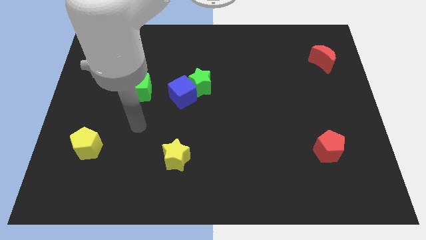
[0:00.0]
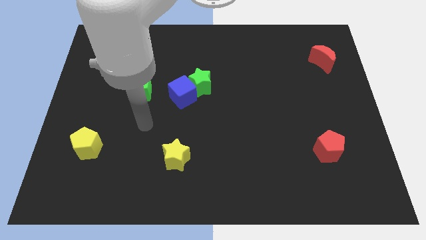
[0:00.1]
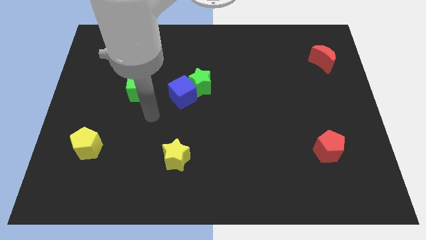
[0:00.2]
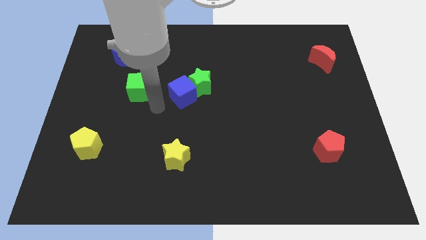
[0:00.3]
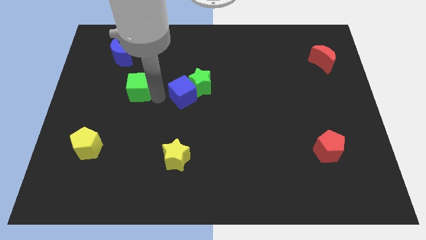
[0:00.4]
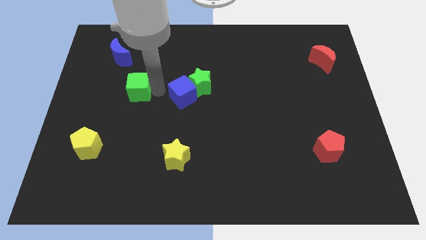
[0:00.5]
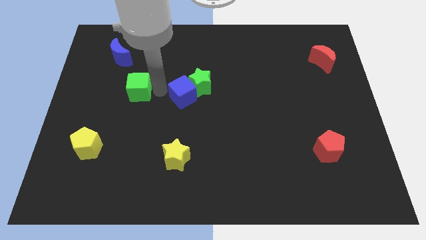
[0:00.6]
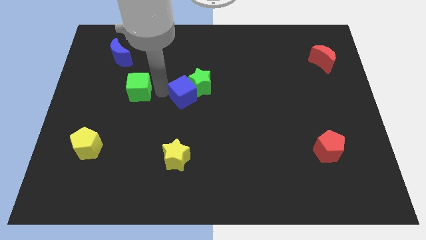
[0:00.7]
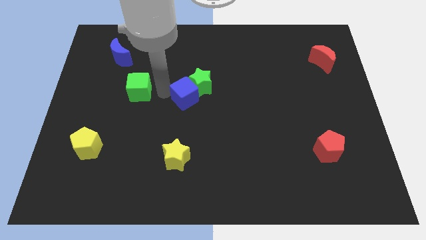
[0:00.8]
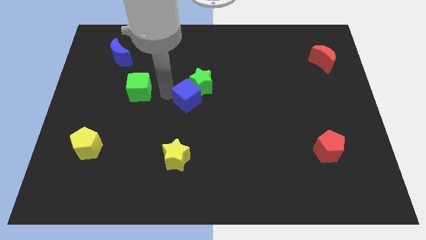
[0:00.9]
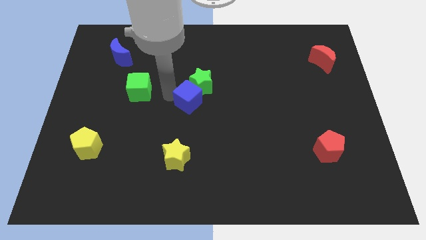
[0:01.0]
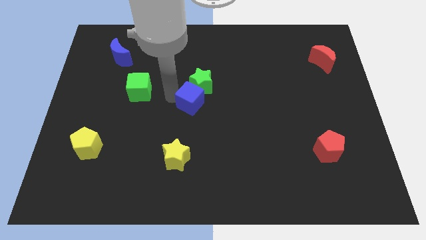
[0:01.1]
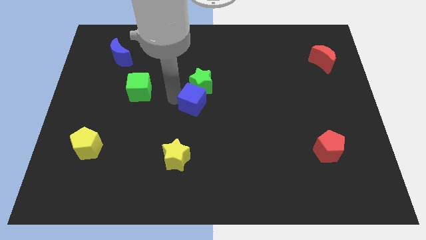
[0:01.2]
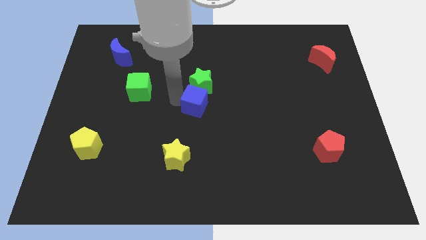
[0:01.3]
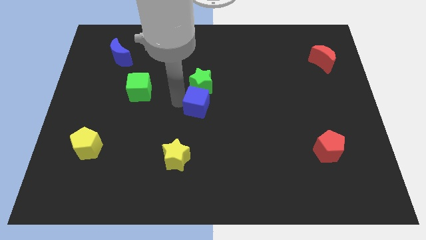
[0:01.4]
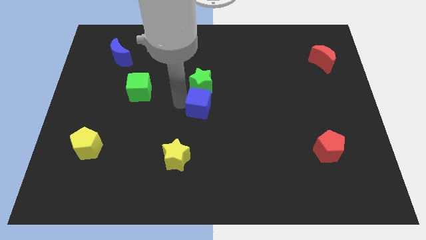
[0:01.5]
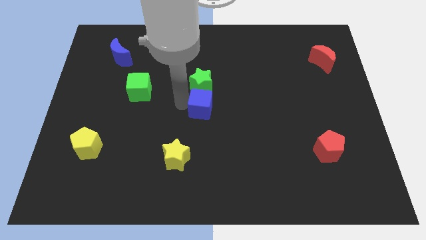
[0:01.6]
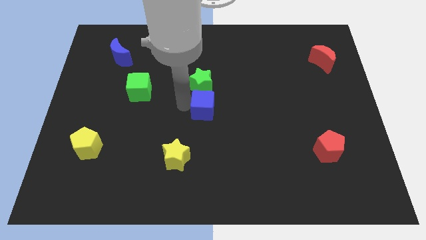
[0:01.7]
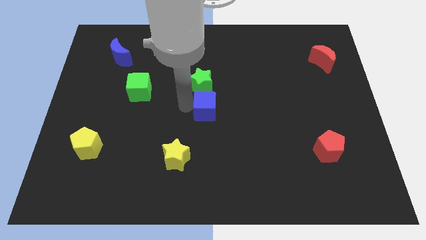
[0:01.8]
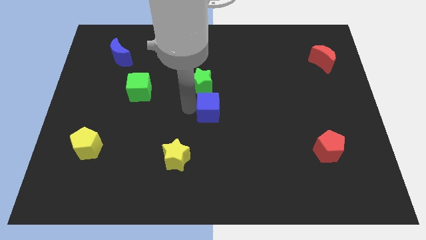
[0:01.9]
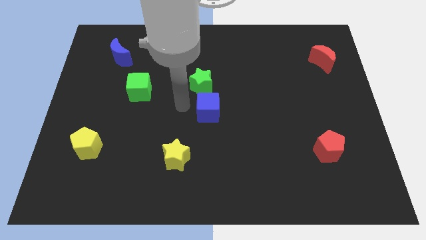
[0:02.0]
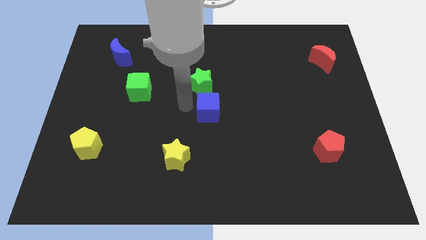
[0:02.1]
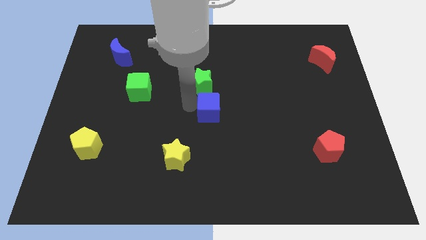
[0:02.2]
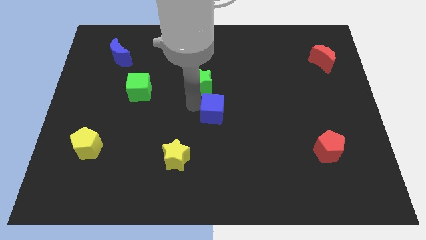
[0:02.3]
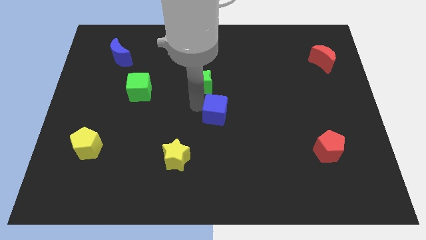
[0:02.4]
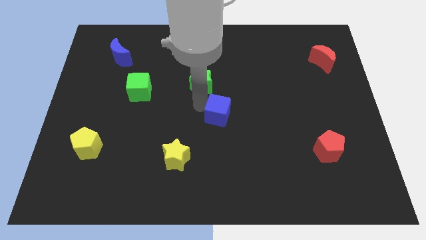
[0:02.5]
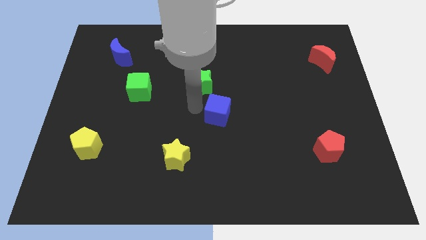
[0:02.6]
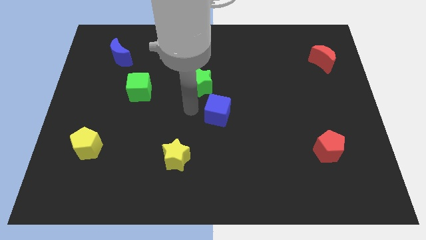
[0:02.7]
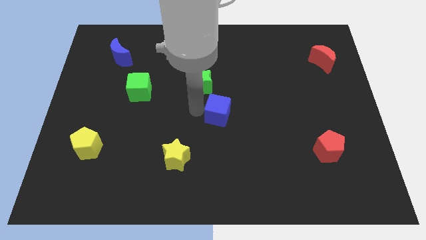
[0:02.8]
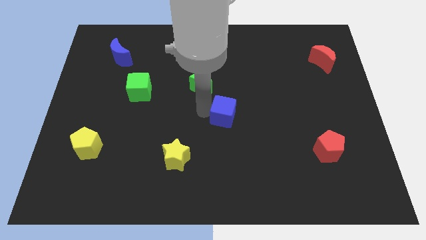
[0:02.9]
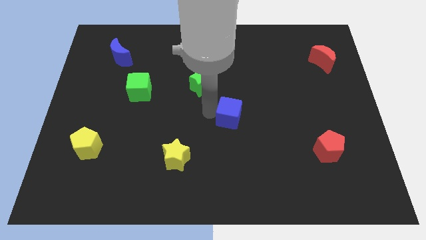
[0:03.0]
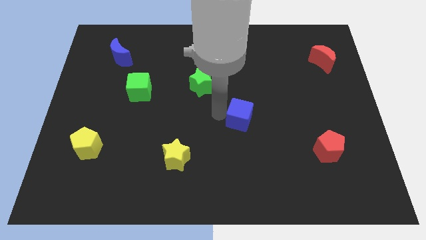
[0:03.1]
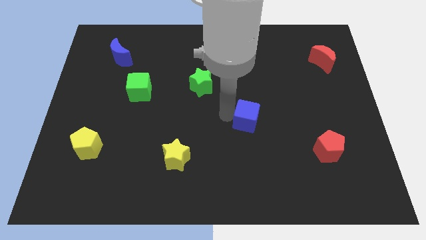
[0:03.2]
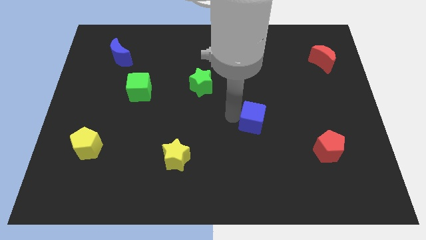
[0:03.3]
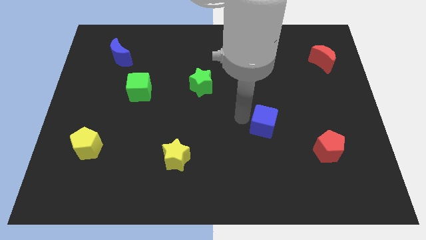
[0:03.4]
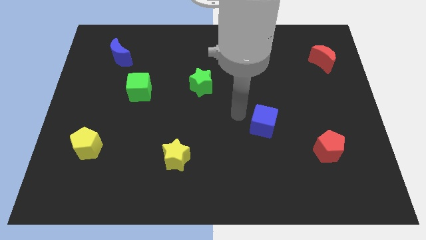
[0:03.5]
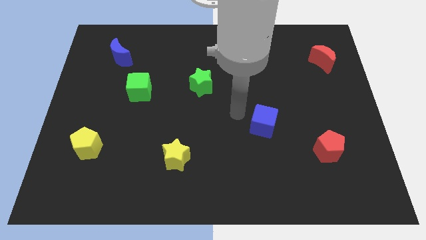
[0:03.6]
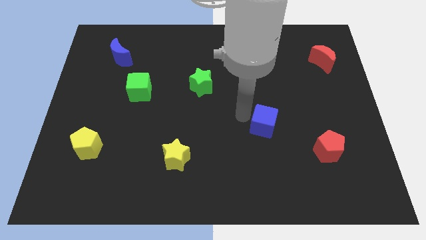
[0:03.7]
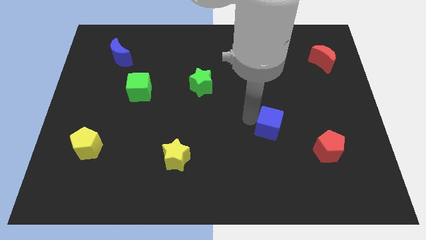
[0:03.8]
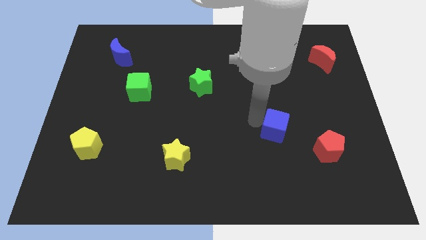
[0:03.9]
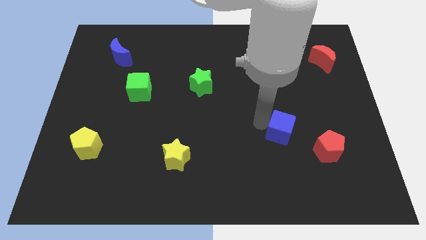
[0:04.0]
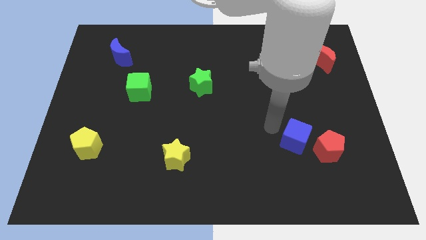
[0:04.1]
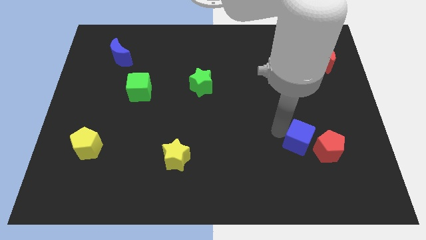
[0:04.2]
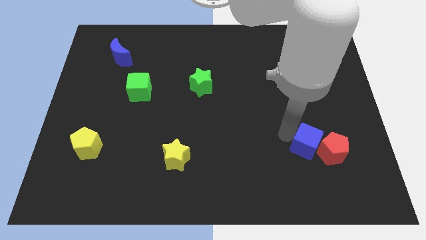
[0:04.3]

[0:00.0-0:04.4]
push the blue cube to the red pentagon

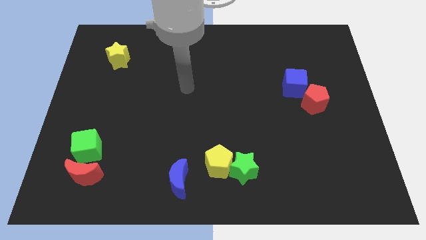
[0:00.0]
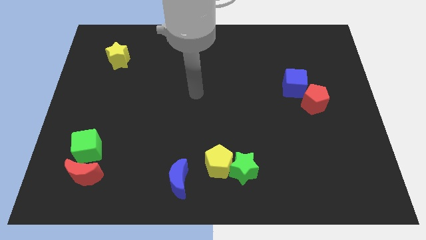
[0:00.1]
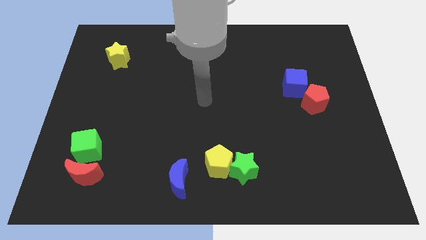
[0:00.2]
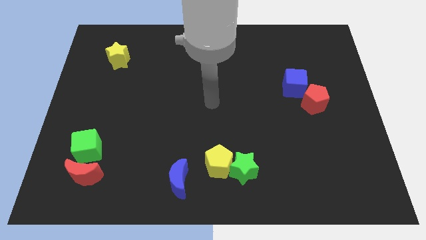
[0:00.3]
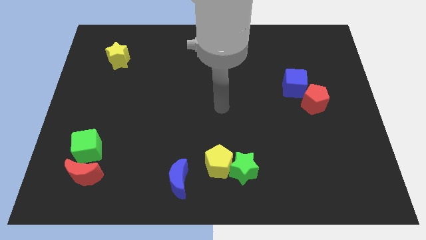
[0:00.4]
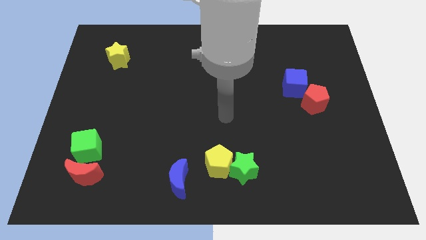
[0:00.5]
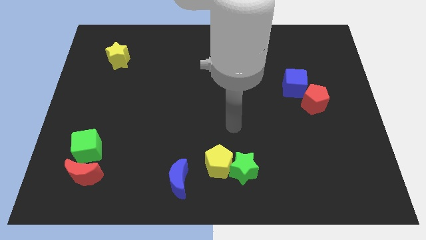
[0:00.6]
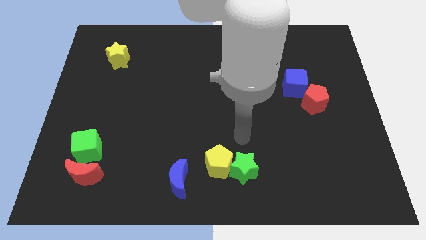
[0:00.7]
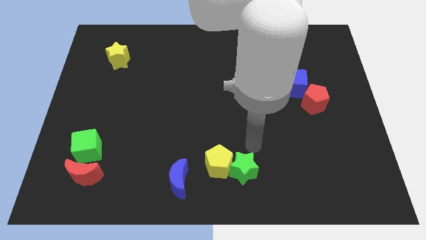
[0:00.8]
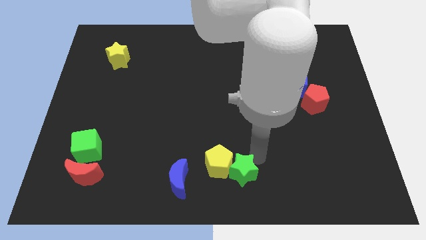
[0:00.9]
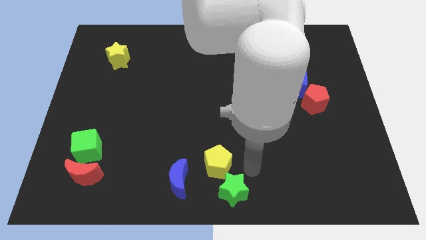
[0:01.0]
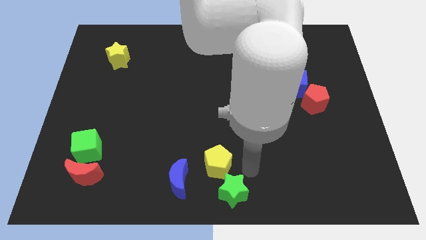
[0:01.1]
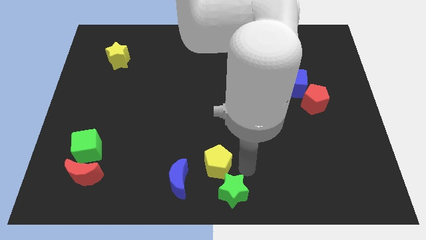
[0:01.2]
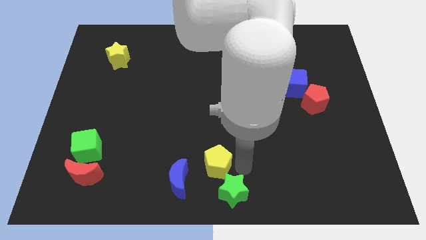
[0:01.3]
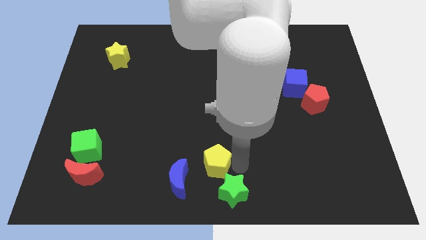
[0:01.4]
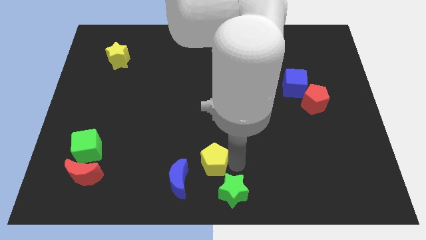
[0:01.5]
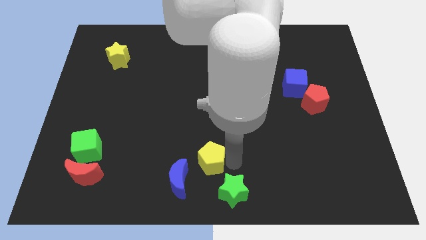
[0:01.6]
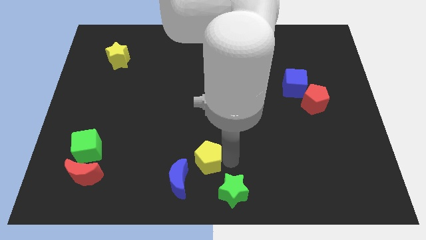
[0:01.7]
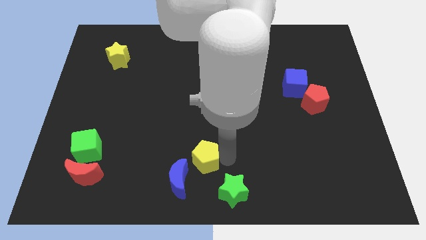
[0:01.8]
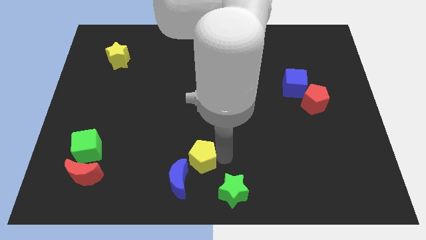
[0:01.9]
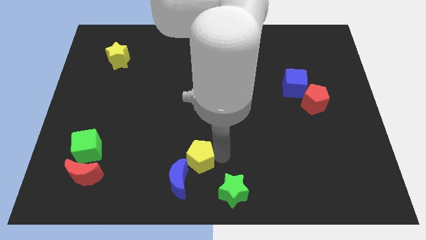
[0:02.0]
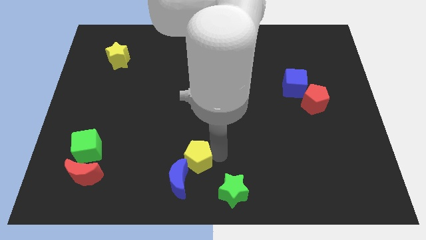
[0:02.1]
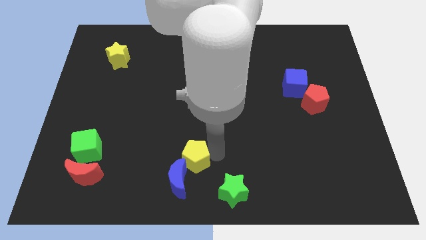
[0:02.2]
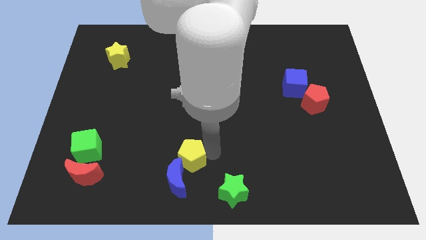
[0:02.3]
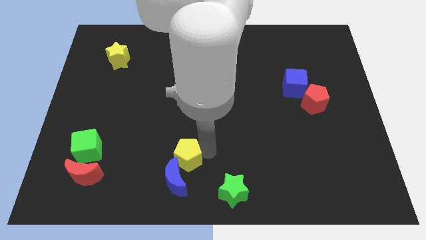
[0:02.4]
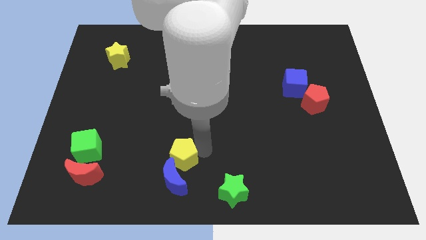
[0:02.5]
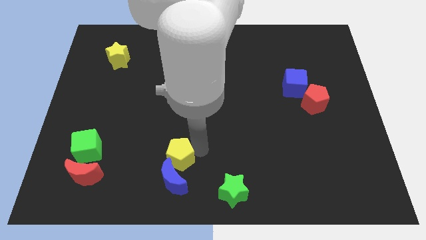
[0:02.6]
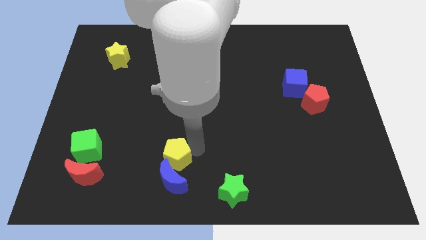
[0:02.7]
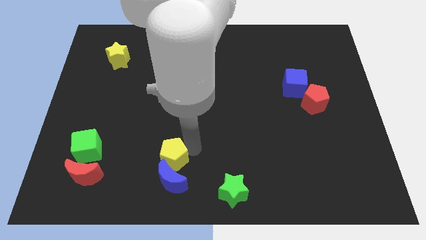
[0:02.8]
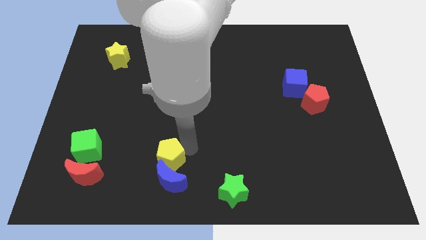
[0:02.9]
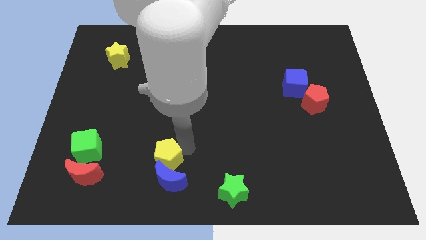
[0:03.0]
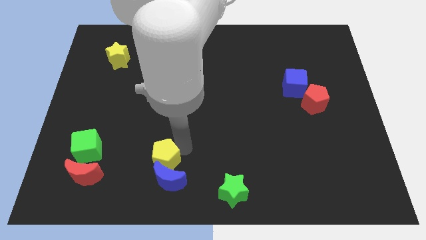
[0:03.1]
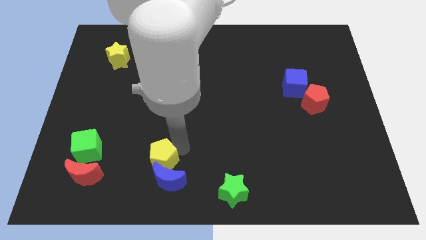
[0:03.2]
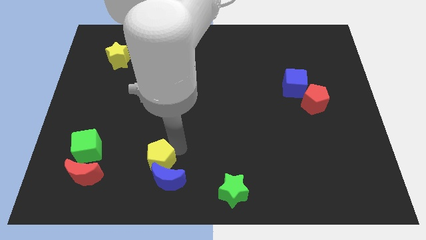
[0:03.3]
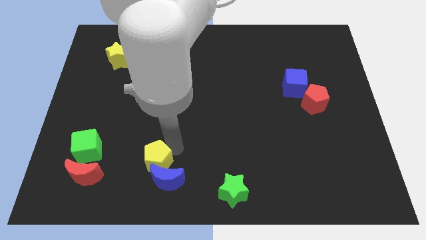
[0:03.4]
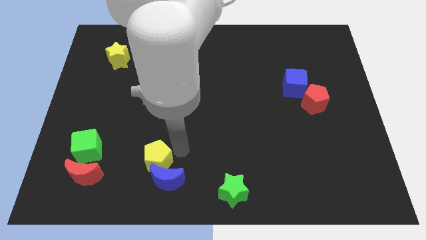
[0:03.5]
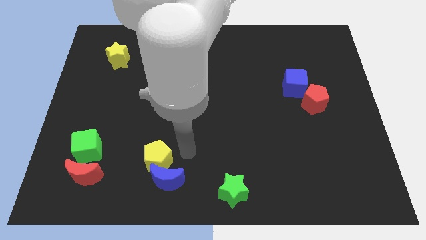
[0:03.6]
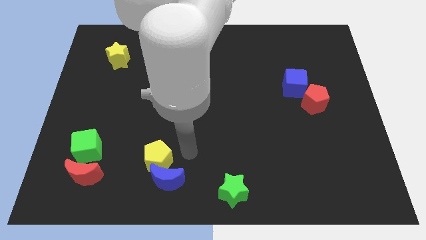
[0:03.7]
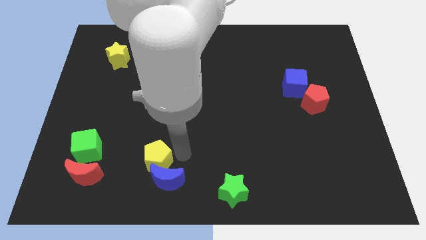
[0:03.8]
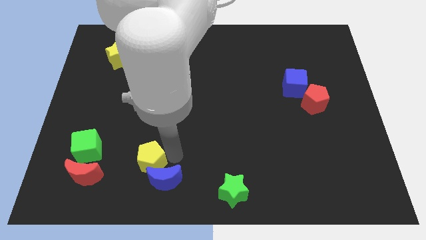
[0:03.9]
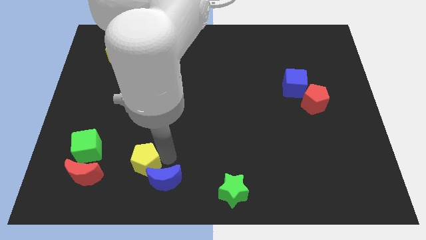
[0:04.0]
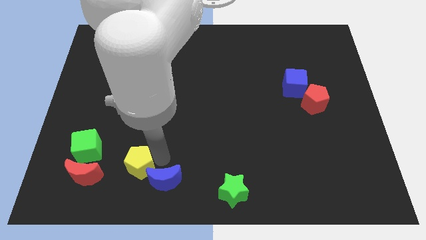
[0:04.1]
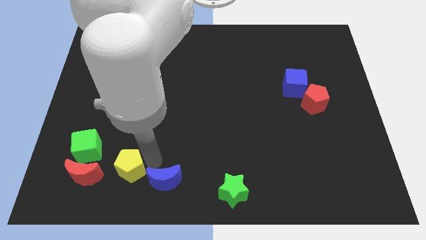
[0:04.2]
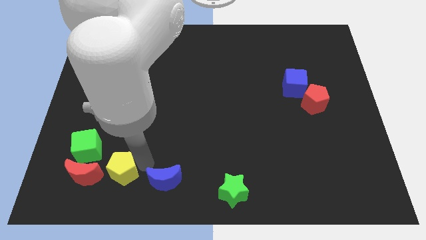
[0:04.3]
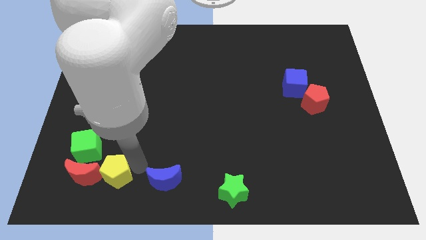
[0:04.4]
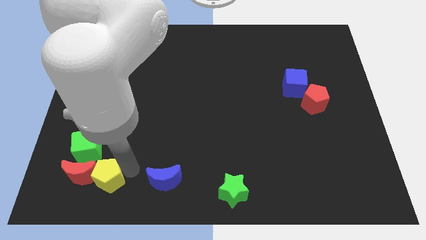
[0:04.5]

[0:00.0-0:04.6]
push the yellow pentagon towards the red moon
